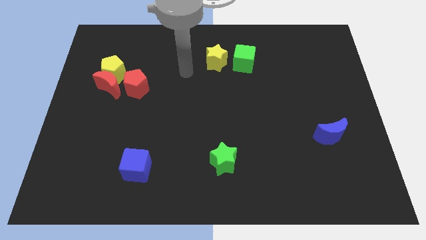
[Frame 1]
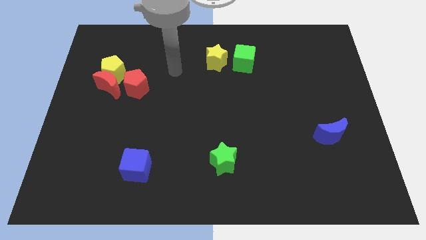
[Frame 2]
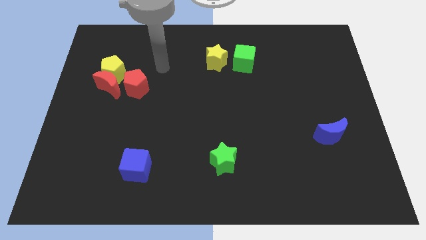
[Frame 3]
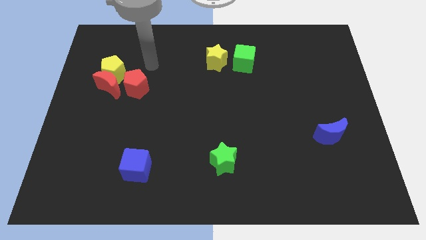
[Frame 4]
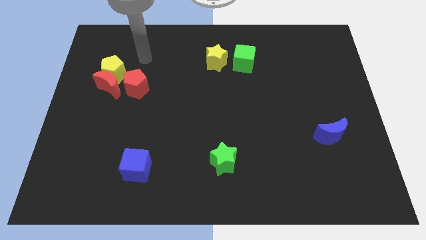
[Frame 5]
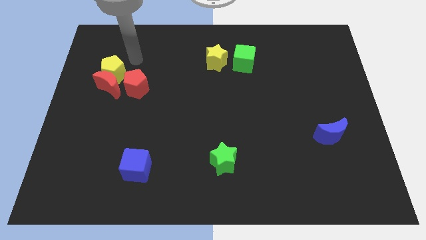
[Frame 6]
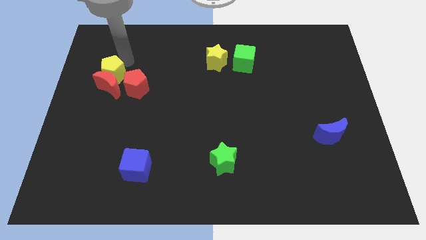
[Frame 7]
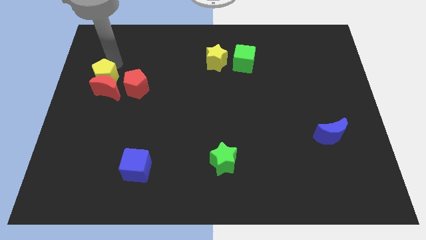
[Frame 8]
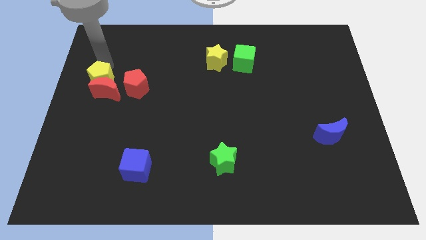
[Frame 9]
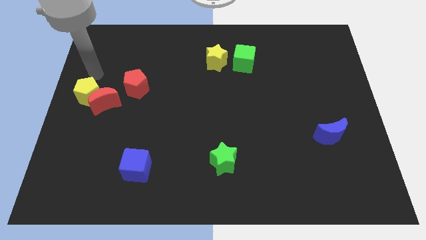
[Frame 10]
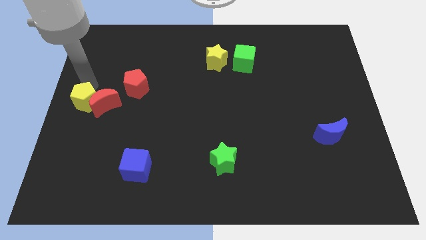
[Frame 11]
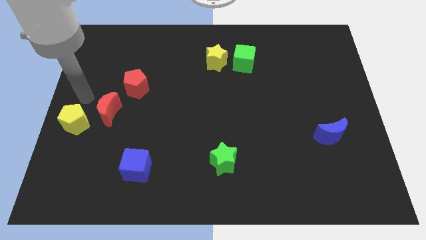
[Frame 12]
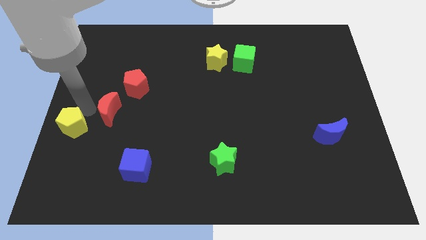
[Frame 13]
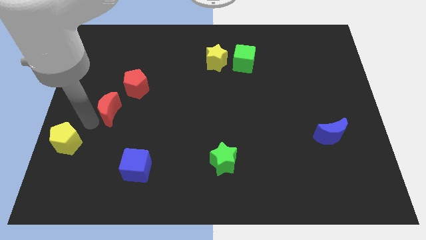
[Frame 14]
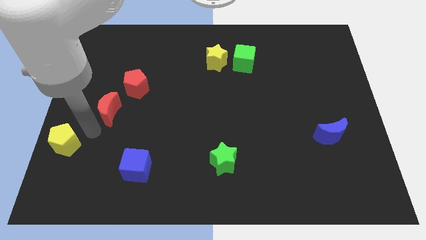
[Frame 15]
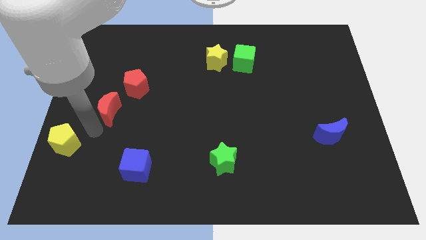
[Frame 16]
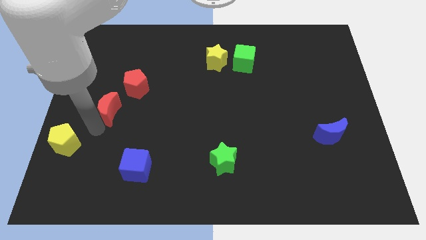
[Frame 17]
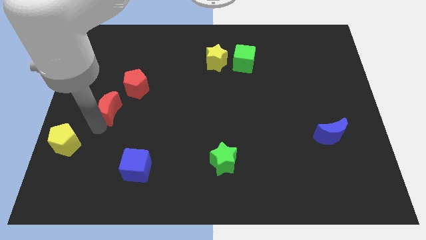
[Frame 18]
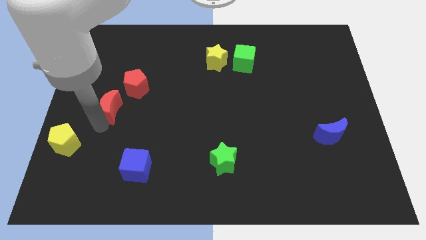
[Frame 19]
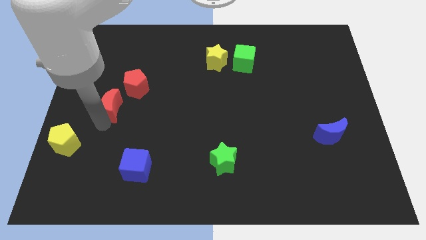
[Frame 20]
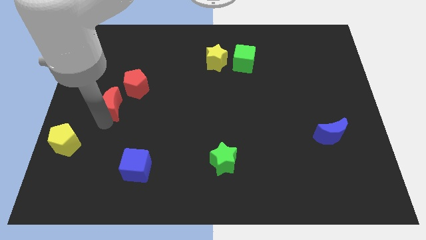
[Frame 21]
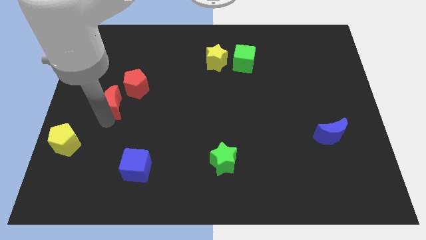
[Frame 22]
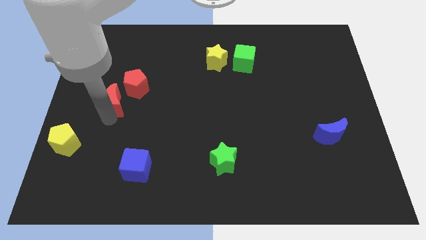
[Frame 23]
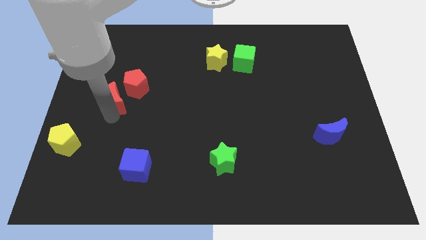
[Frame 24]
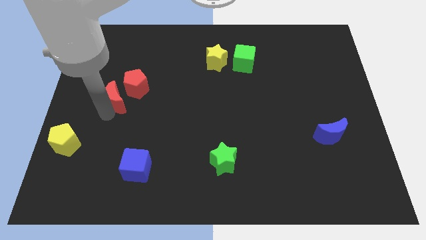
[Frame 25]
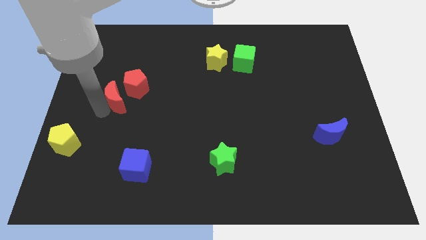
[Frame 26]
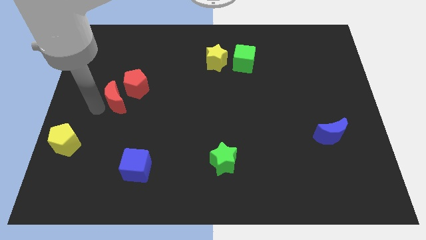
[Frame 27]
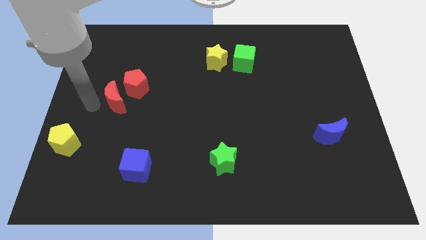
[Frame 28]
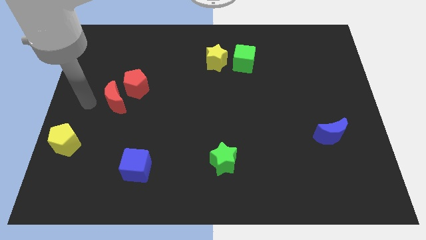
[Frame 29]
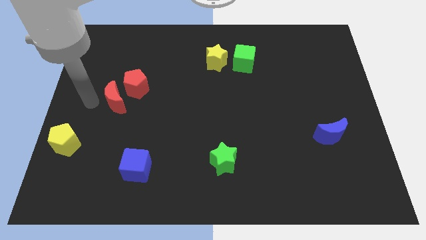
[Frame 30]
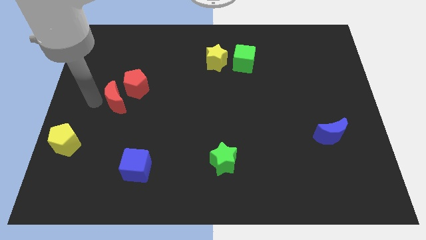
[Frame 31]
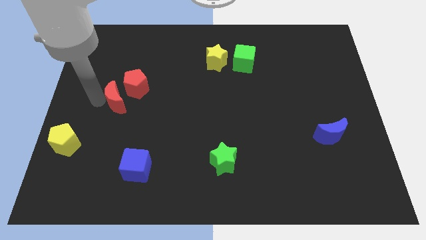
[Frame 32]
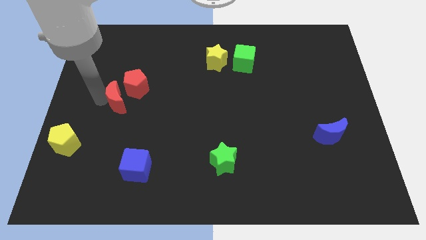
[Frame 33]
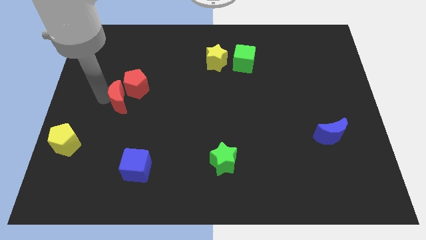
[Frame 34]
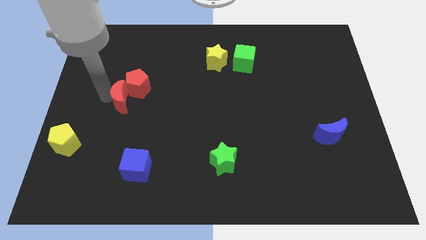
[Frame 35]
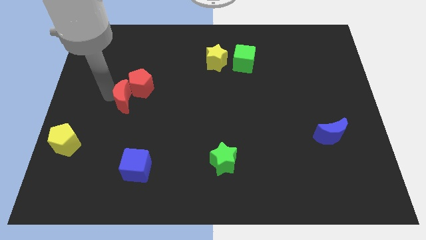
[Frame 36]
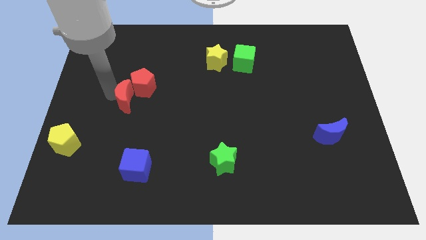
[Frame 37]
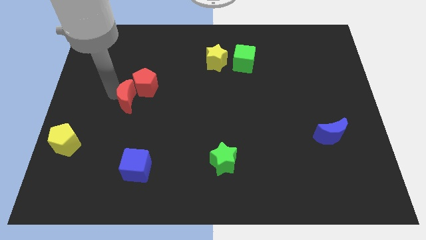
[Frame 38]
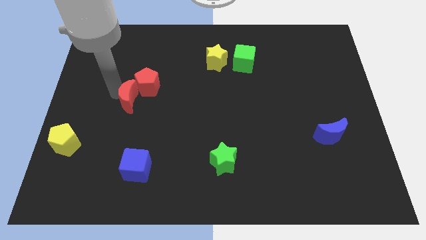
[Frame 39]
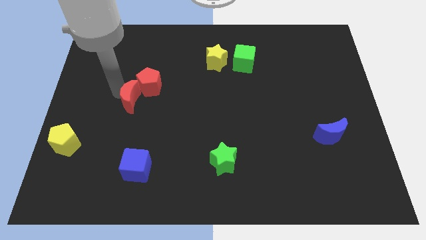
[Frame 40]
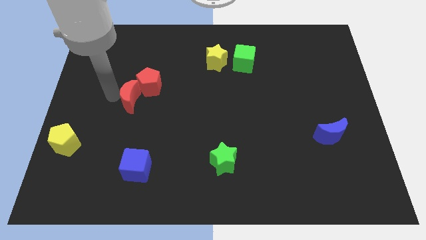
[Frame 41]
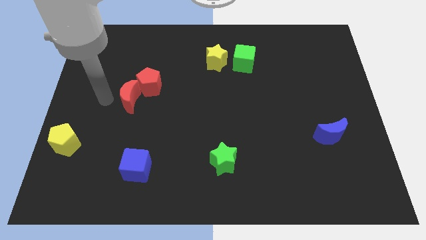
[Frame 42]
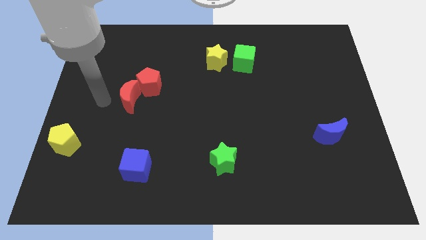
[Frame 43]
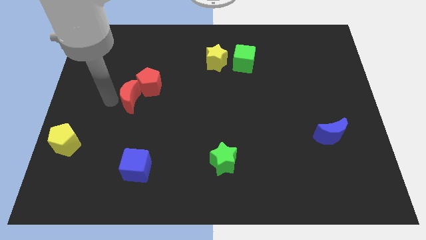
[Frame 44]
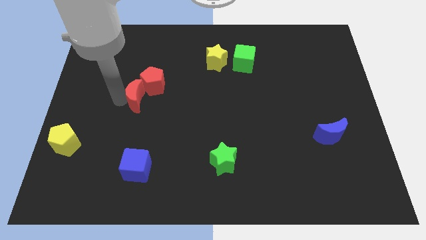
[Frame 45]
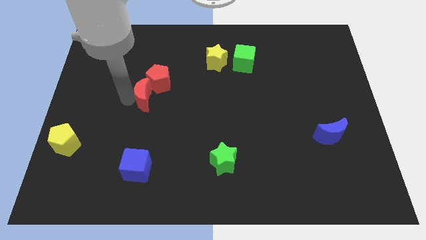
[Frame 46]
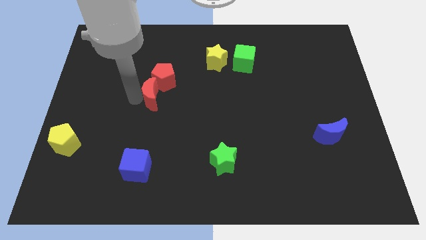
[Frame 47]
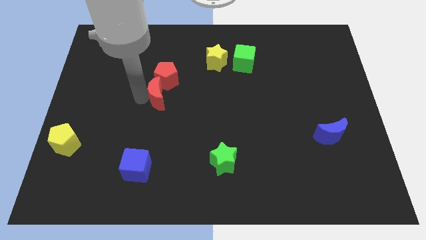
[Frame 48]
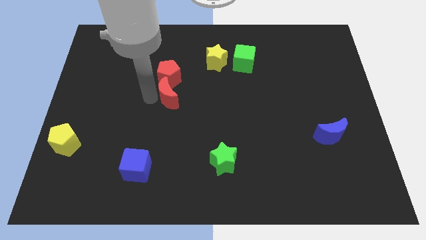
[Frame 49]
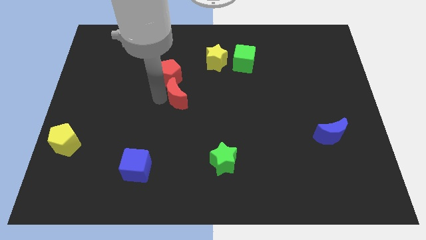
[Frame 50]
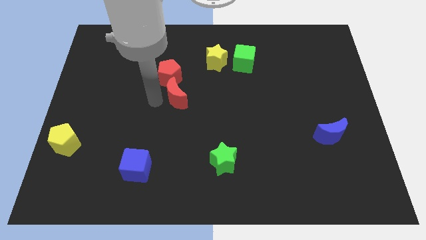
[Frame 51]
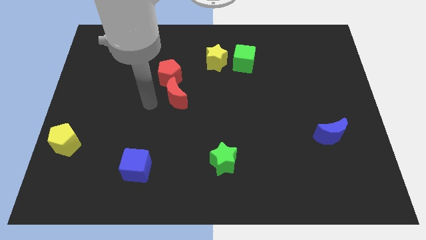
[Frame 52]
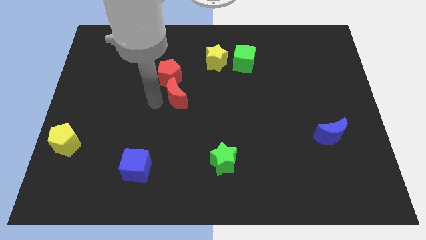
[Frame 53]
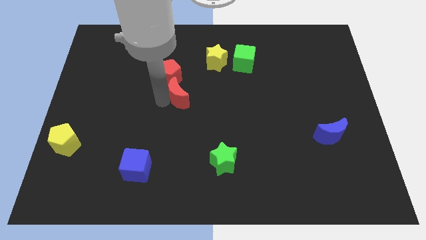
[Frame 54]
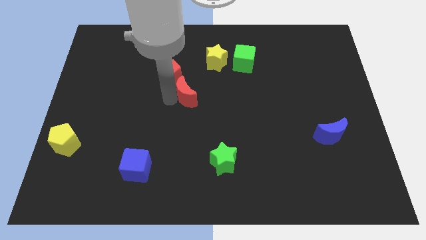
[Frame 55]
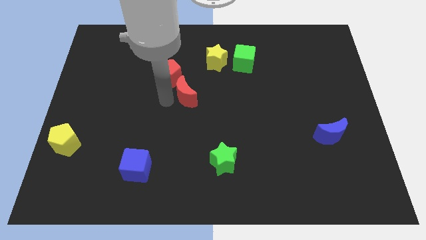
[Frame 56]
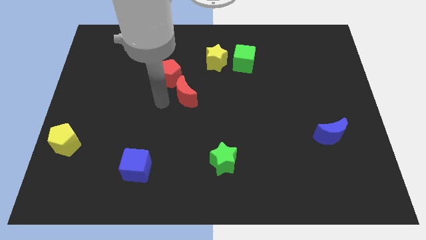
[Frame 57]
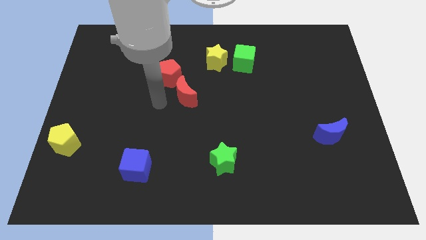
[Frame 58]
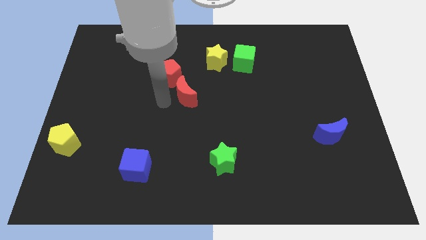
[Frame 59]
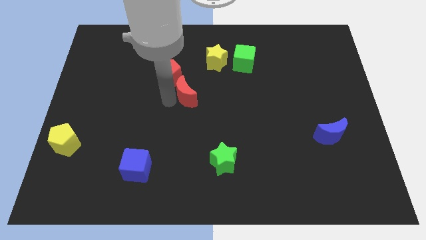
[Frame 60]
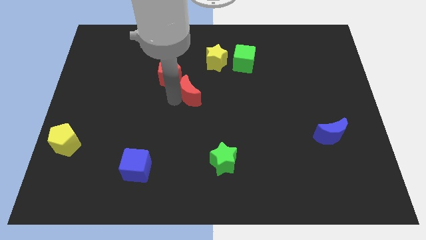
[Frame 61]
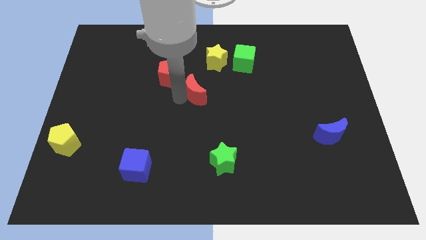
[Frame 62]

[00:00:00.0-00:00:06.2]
push the red moon right

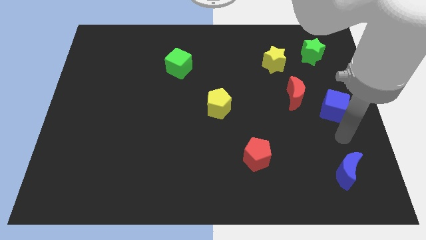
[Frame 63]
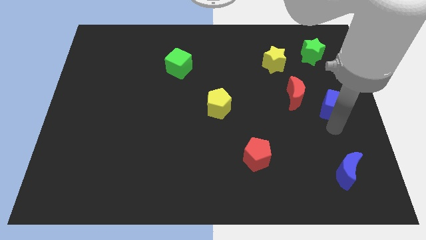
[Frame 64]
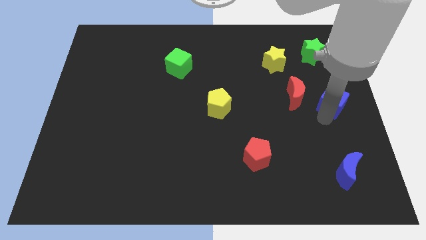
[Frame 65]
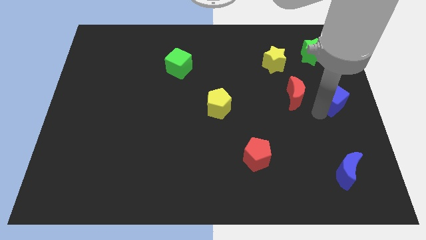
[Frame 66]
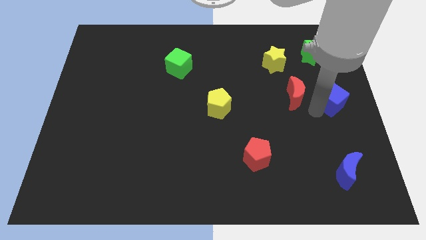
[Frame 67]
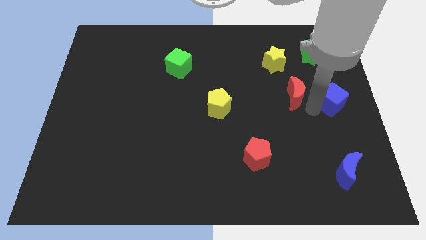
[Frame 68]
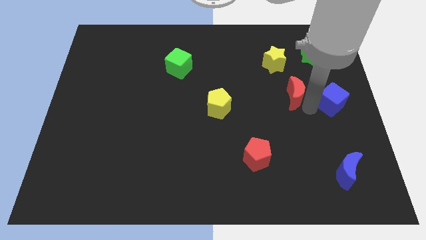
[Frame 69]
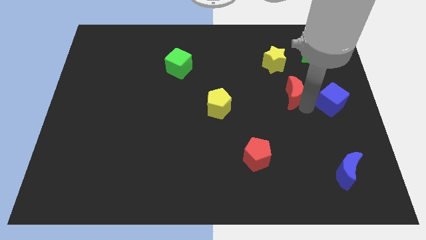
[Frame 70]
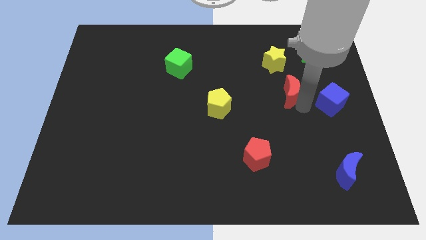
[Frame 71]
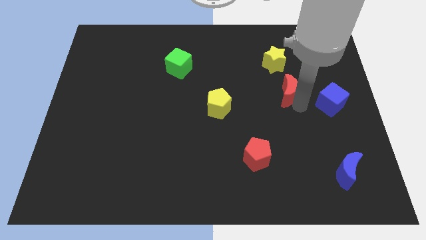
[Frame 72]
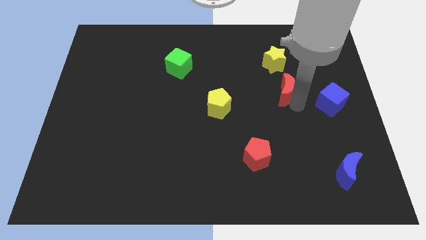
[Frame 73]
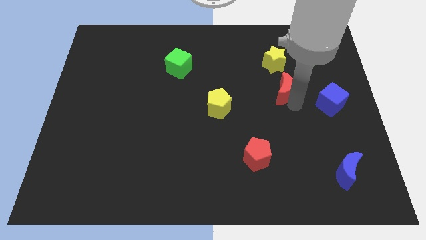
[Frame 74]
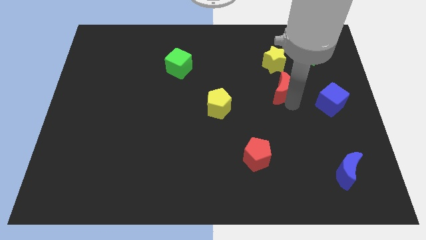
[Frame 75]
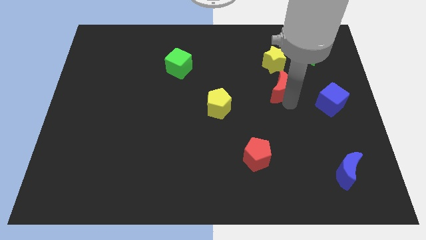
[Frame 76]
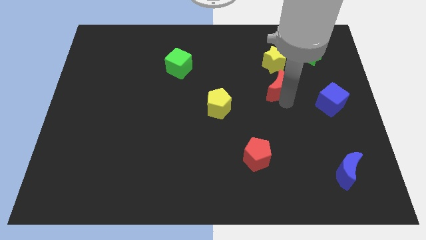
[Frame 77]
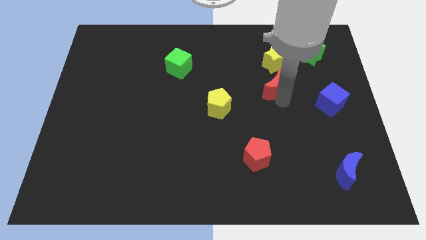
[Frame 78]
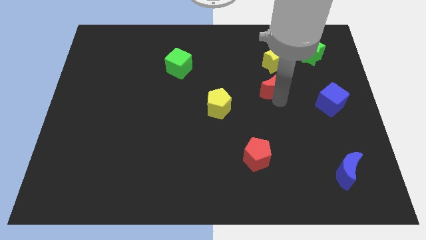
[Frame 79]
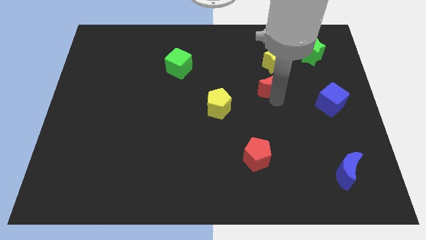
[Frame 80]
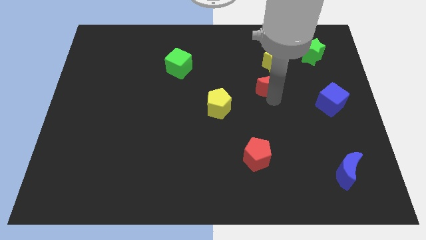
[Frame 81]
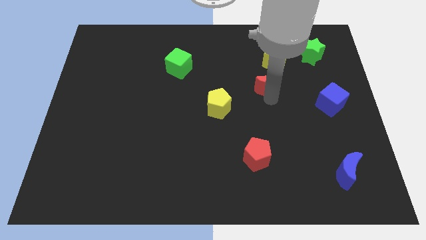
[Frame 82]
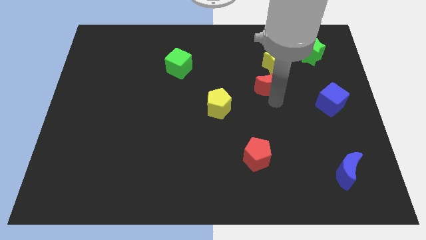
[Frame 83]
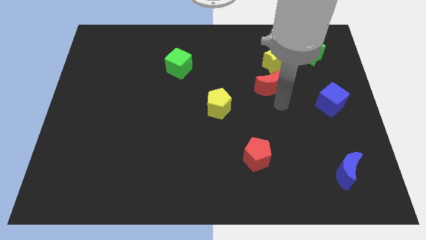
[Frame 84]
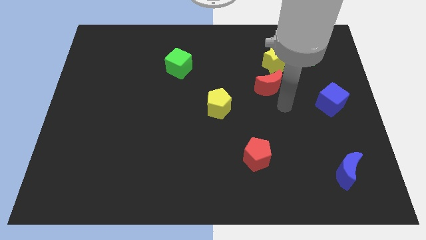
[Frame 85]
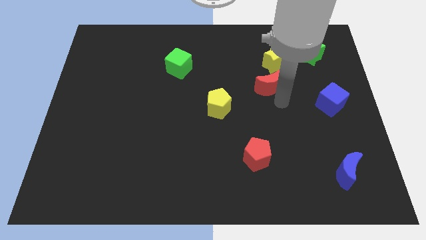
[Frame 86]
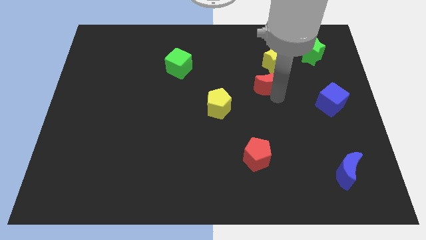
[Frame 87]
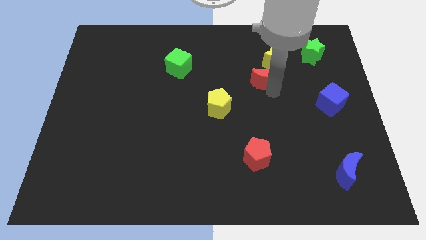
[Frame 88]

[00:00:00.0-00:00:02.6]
slightly push the red moon up and left
